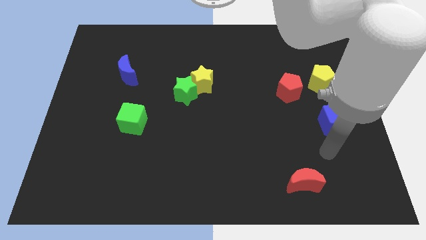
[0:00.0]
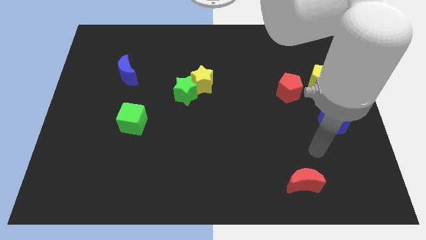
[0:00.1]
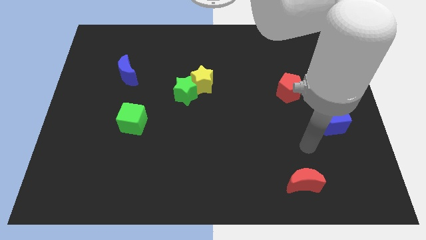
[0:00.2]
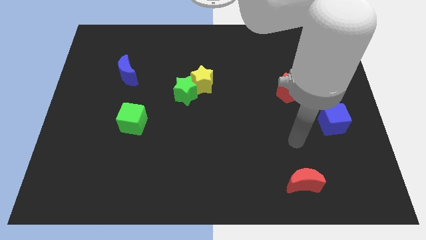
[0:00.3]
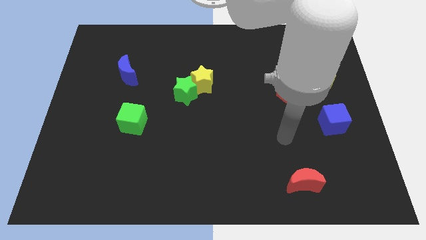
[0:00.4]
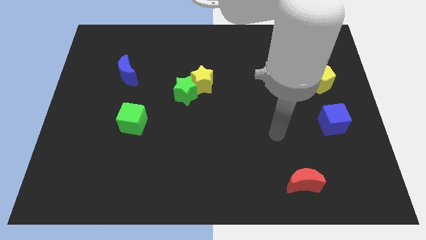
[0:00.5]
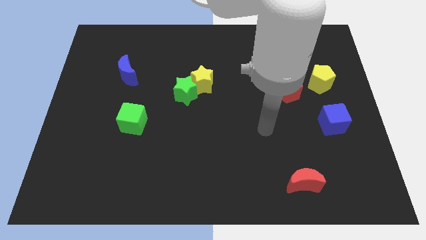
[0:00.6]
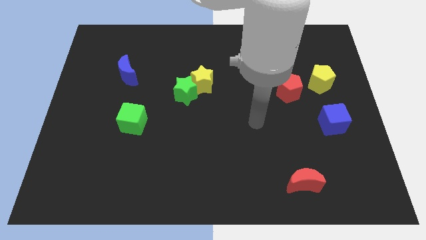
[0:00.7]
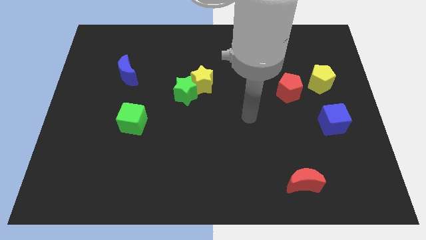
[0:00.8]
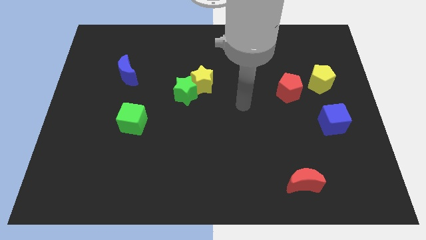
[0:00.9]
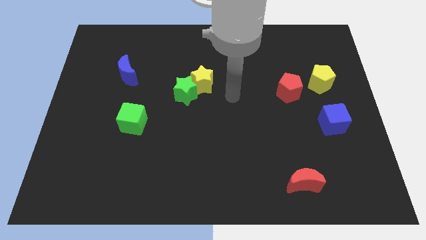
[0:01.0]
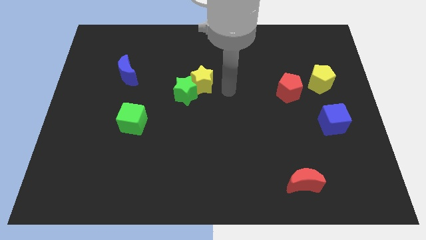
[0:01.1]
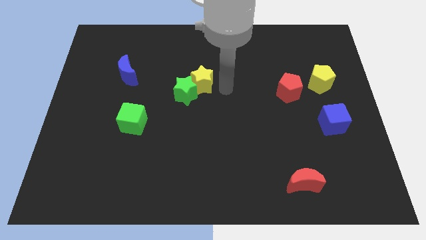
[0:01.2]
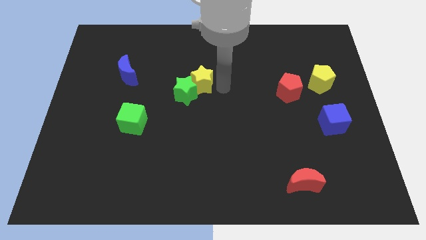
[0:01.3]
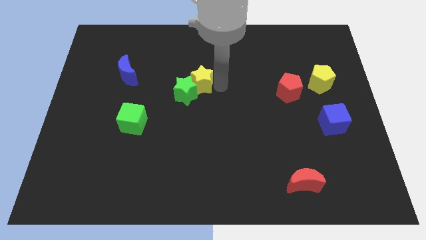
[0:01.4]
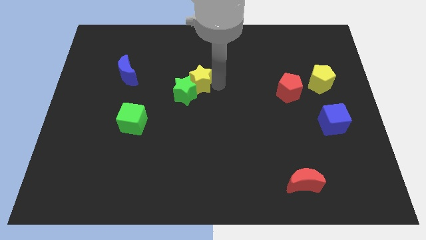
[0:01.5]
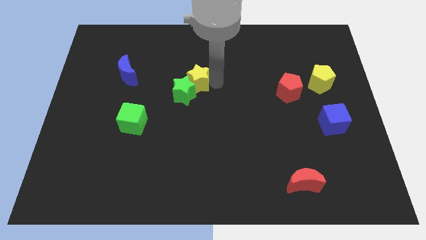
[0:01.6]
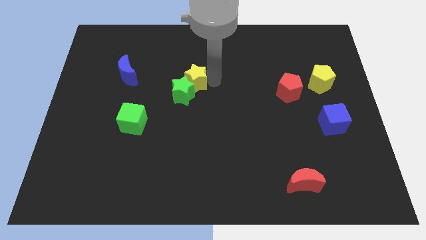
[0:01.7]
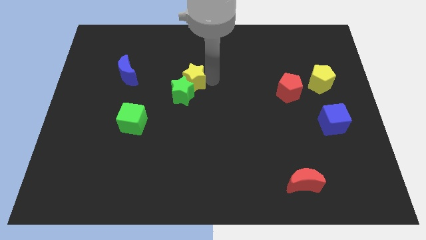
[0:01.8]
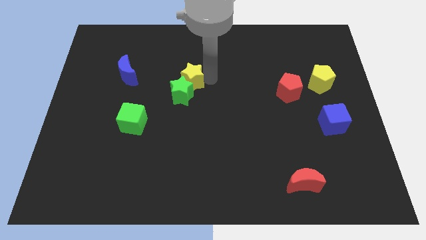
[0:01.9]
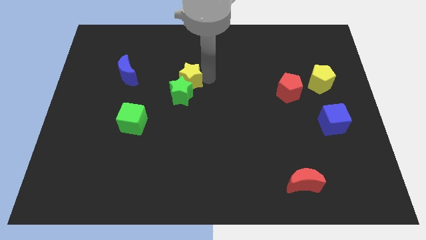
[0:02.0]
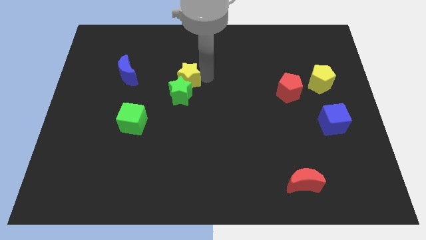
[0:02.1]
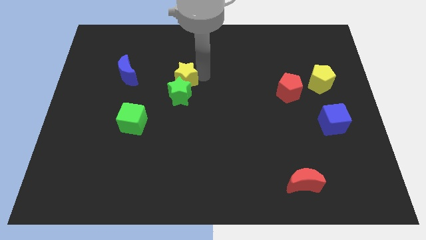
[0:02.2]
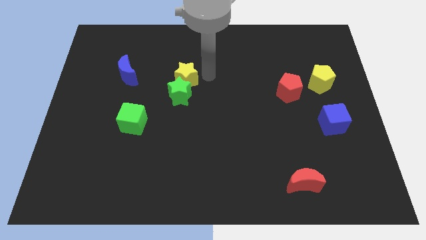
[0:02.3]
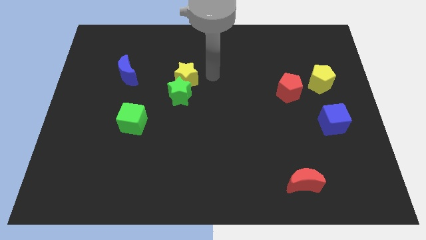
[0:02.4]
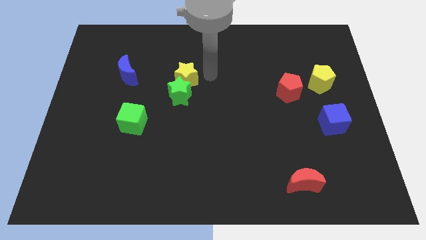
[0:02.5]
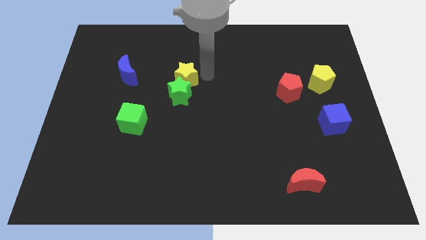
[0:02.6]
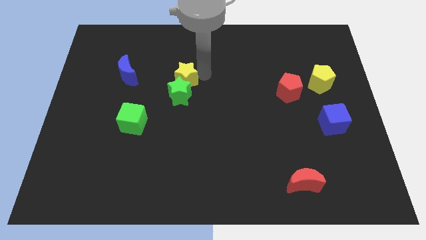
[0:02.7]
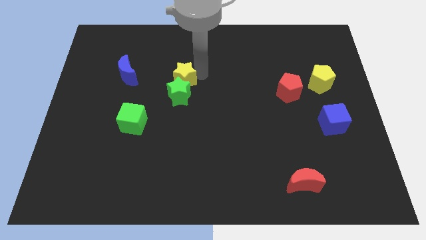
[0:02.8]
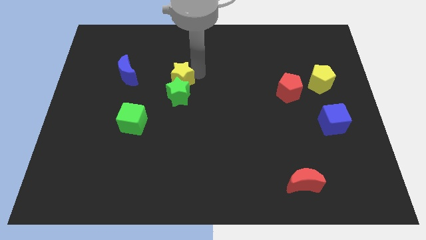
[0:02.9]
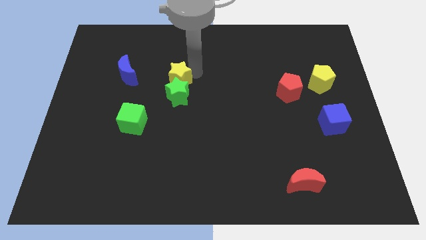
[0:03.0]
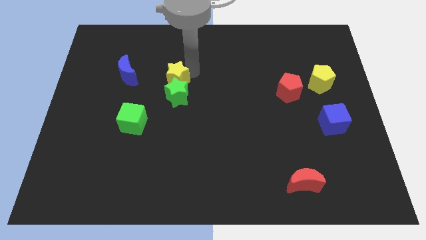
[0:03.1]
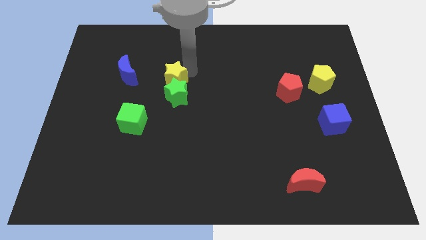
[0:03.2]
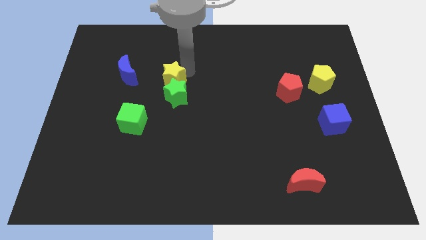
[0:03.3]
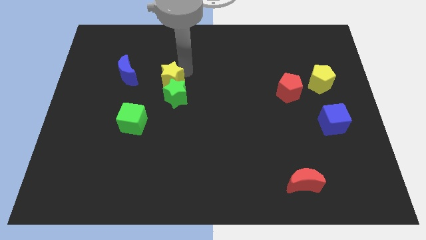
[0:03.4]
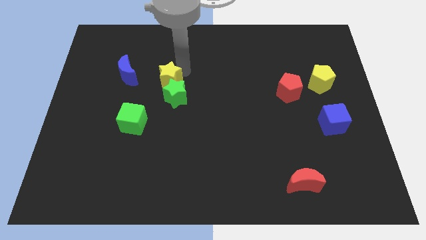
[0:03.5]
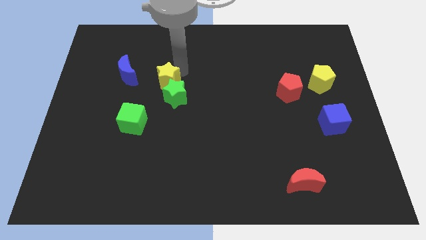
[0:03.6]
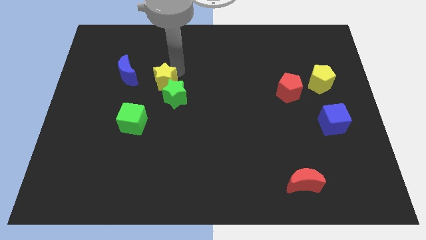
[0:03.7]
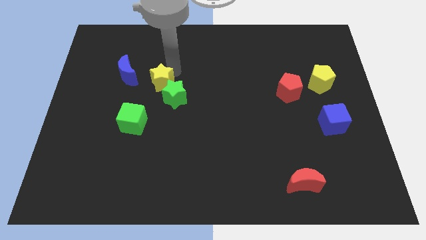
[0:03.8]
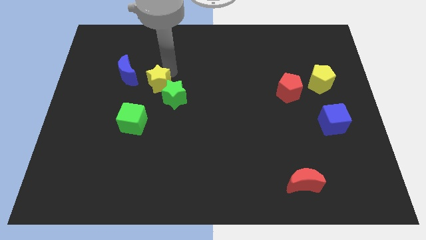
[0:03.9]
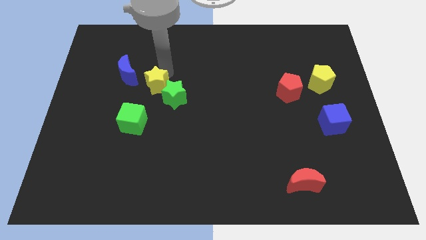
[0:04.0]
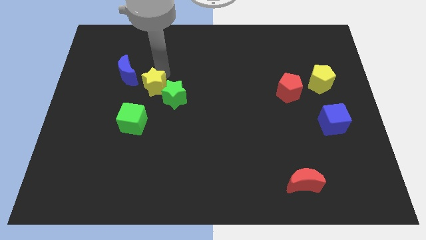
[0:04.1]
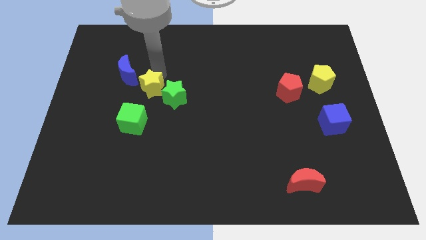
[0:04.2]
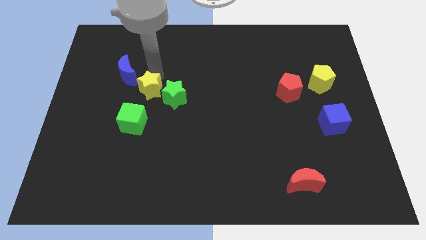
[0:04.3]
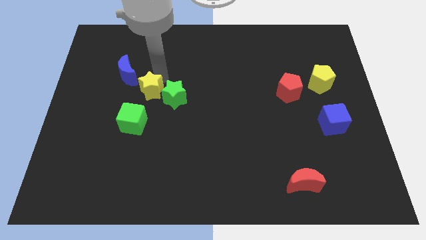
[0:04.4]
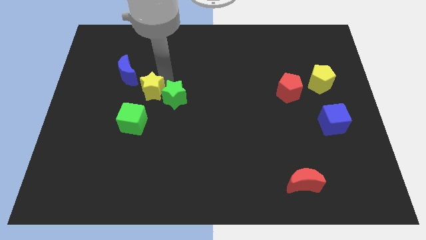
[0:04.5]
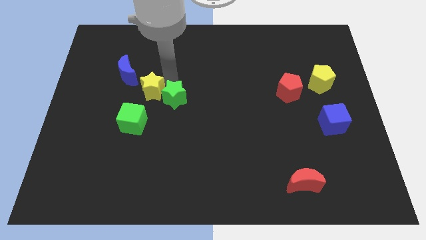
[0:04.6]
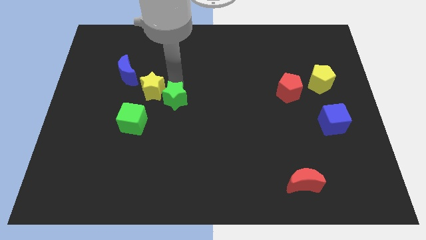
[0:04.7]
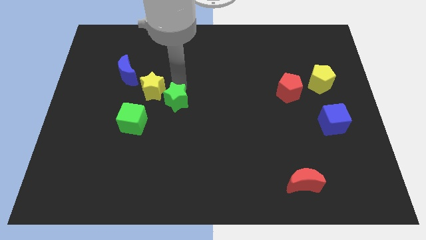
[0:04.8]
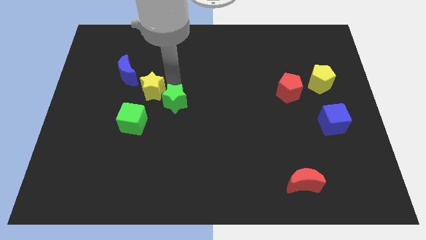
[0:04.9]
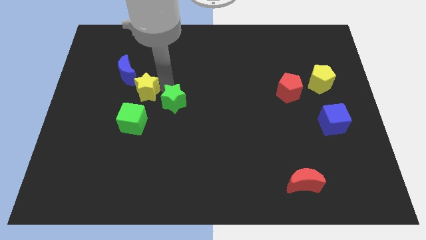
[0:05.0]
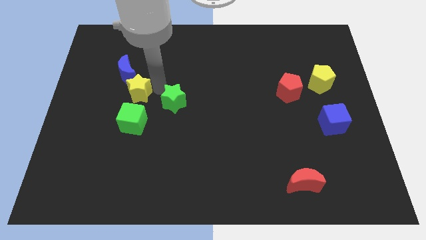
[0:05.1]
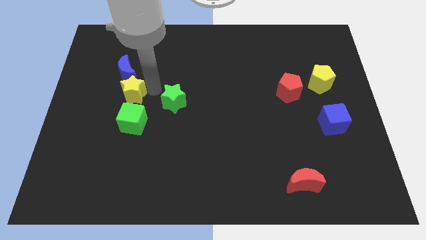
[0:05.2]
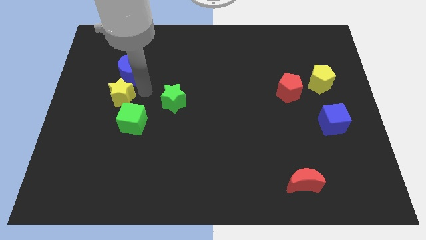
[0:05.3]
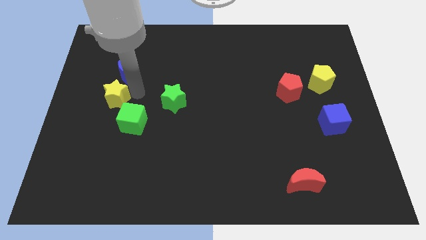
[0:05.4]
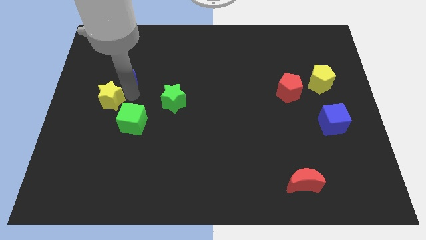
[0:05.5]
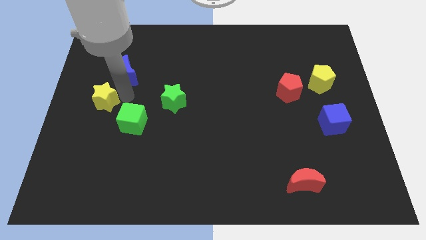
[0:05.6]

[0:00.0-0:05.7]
push the yellow star to the center left
